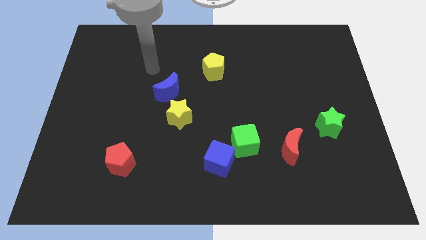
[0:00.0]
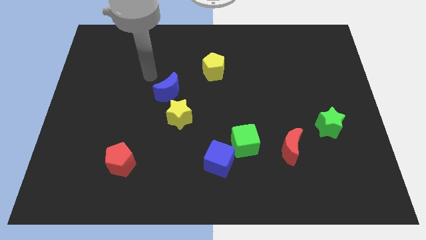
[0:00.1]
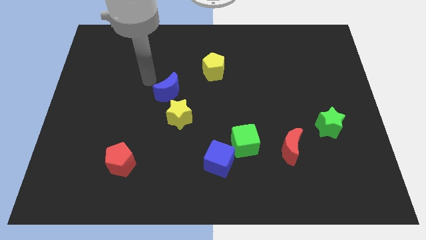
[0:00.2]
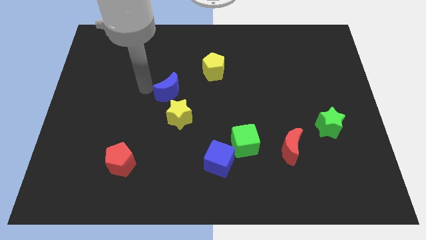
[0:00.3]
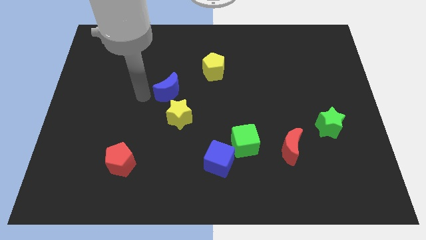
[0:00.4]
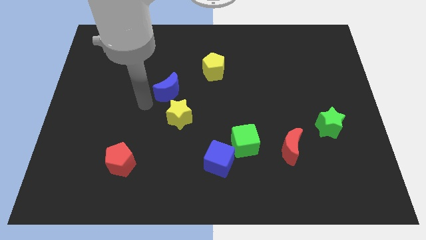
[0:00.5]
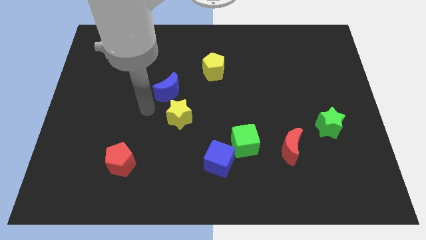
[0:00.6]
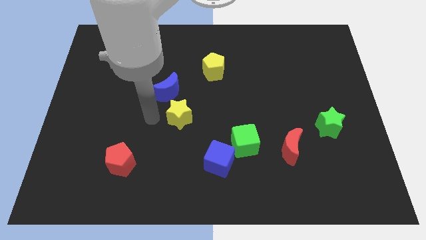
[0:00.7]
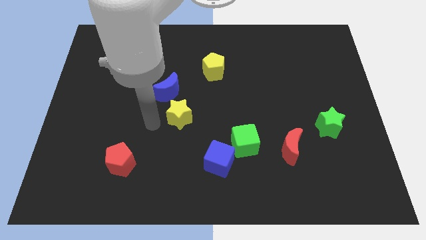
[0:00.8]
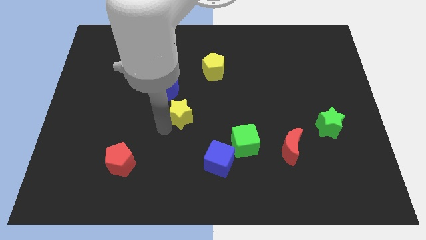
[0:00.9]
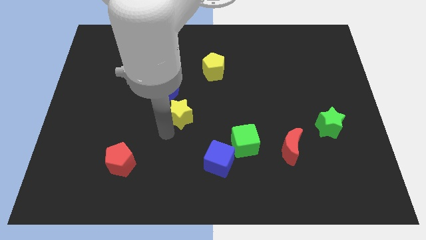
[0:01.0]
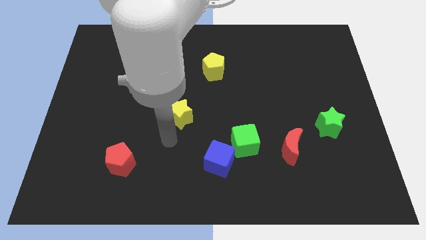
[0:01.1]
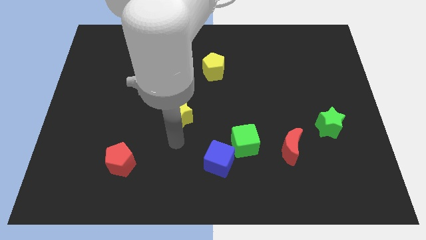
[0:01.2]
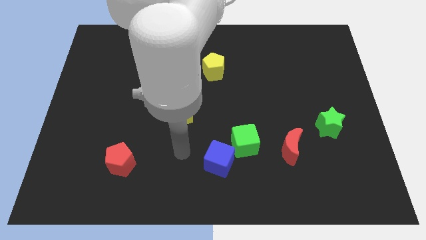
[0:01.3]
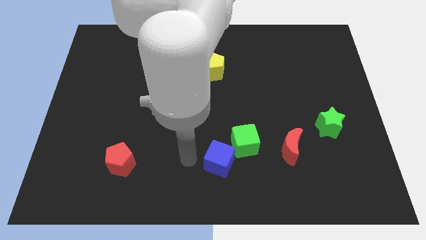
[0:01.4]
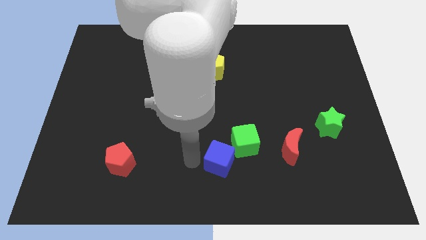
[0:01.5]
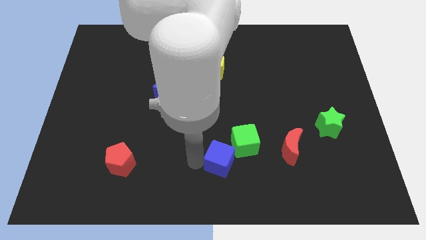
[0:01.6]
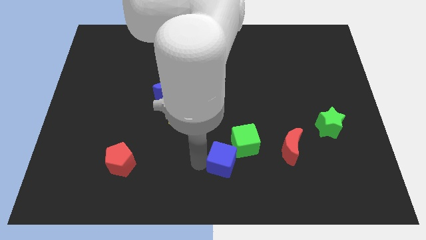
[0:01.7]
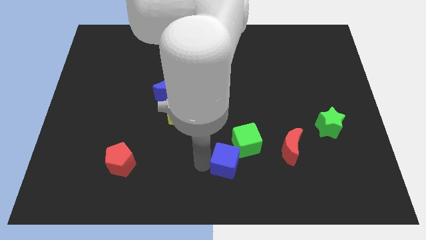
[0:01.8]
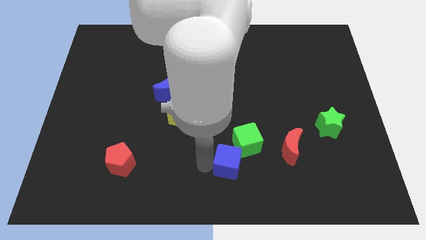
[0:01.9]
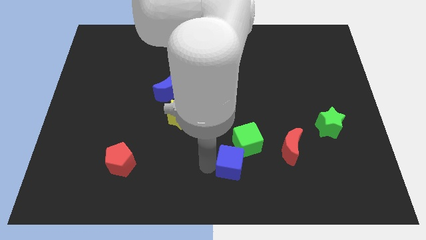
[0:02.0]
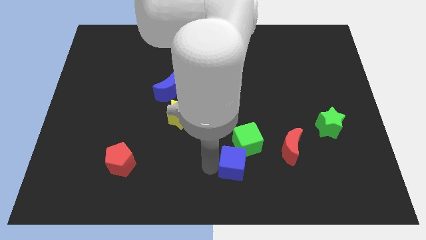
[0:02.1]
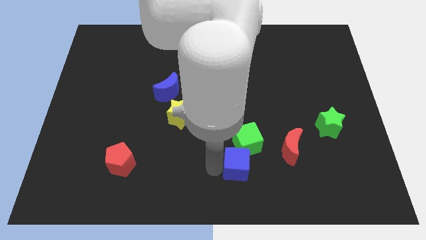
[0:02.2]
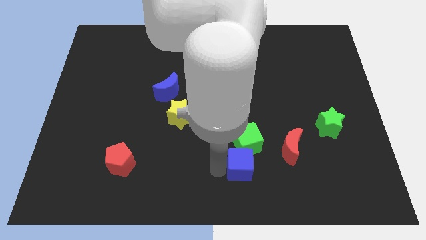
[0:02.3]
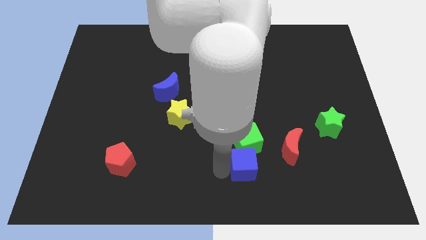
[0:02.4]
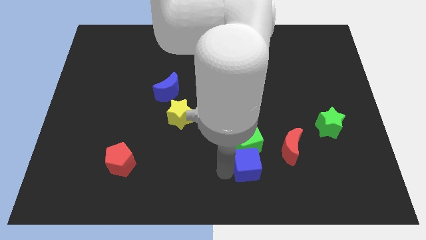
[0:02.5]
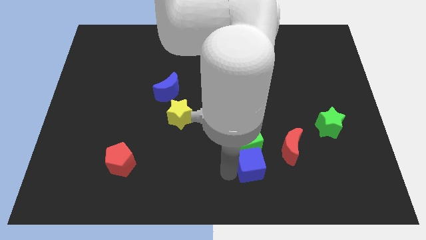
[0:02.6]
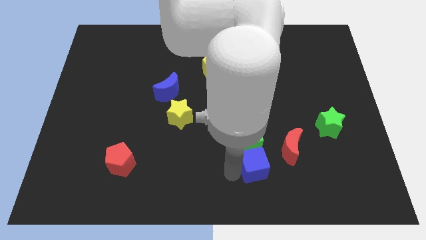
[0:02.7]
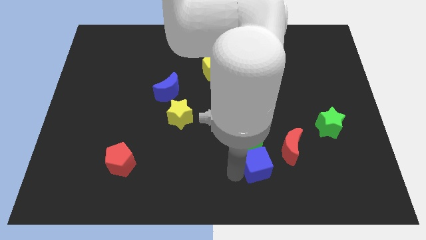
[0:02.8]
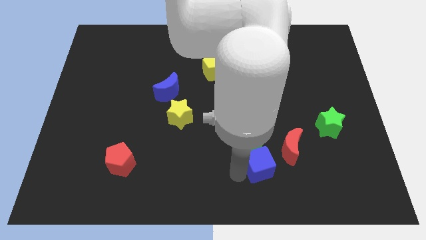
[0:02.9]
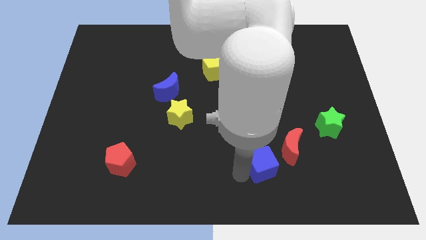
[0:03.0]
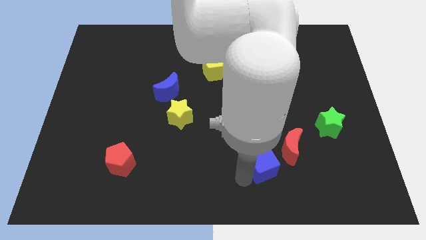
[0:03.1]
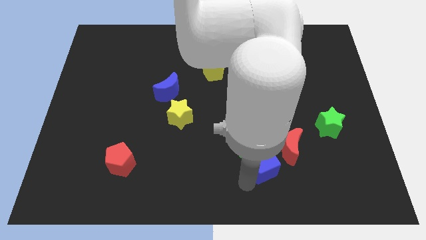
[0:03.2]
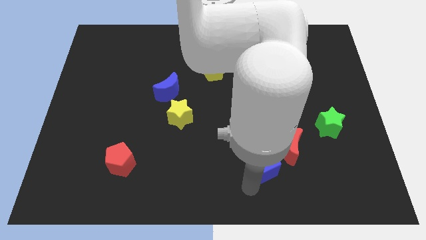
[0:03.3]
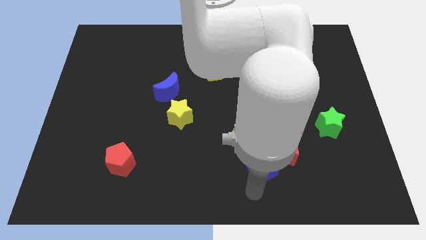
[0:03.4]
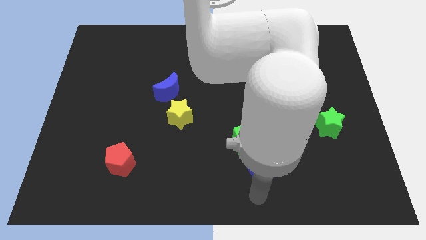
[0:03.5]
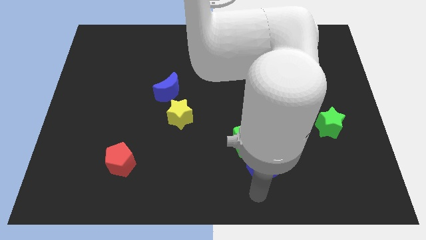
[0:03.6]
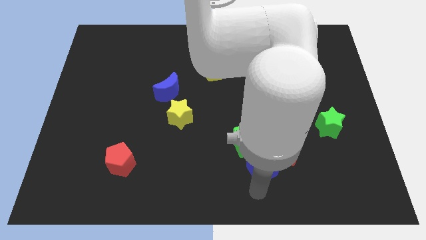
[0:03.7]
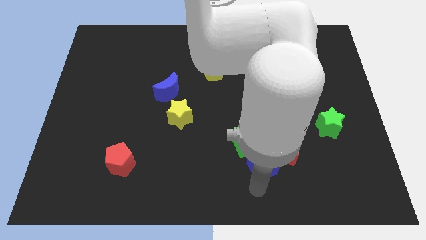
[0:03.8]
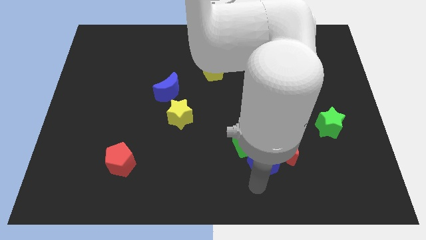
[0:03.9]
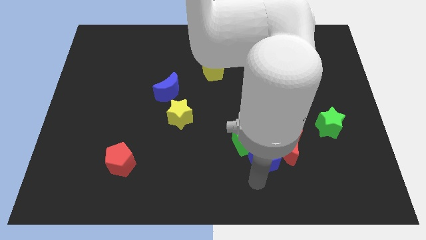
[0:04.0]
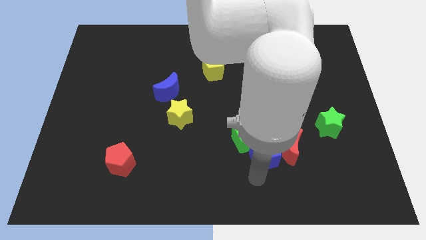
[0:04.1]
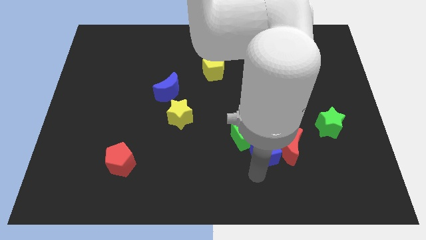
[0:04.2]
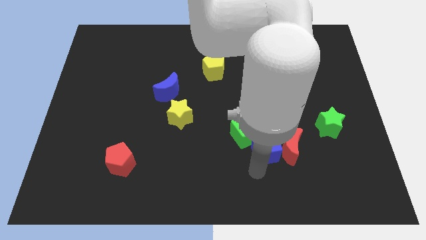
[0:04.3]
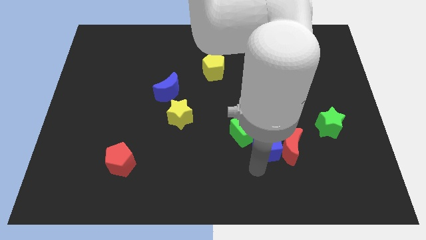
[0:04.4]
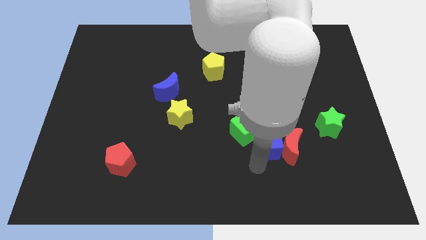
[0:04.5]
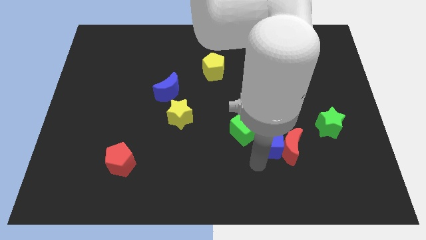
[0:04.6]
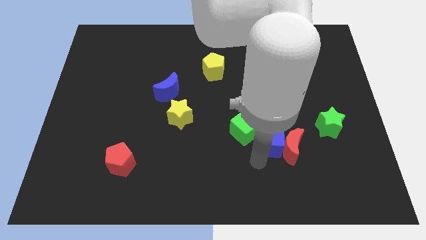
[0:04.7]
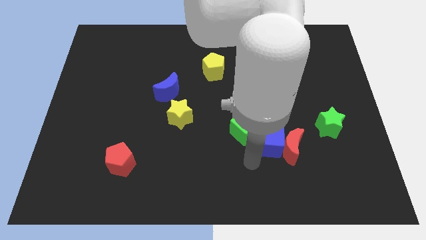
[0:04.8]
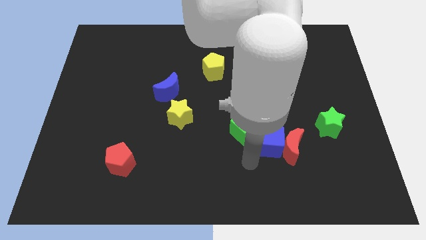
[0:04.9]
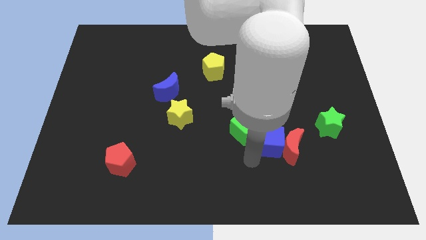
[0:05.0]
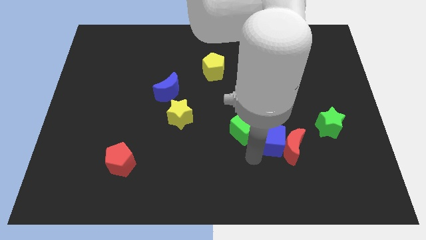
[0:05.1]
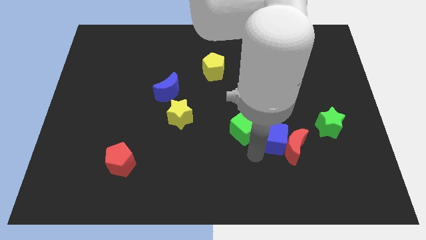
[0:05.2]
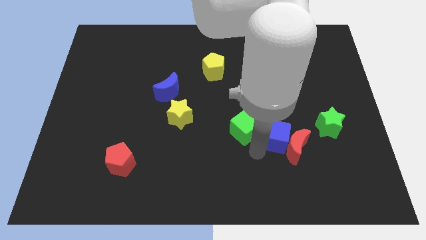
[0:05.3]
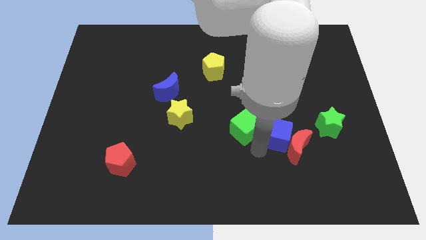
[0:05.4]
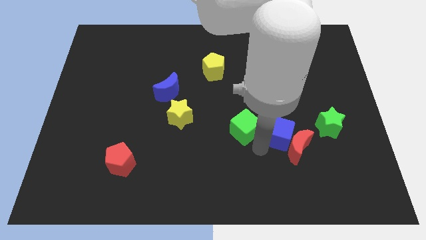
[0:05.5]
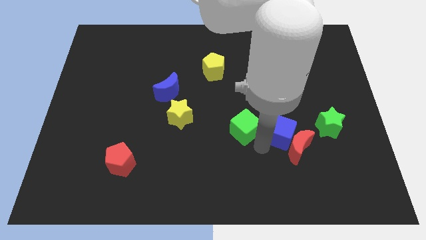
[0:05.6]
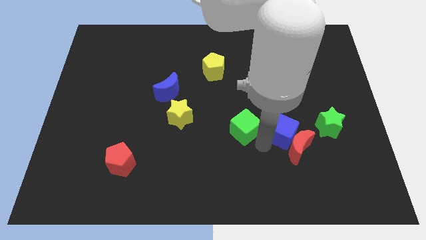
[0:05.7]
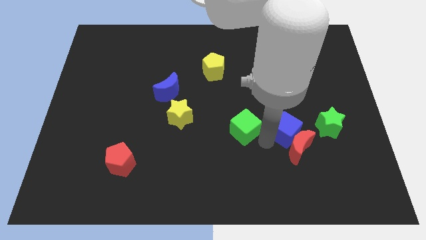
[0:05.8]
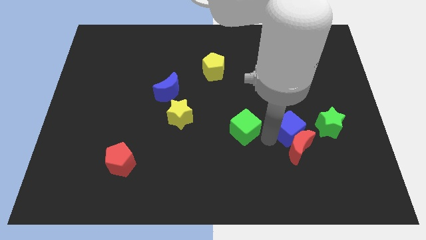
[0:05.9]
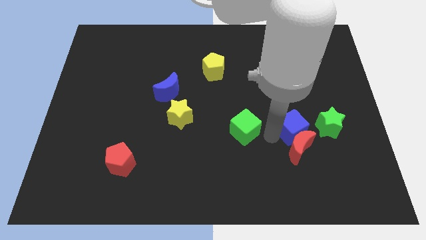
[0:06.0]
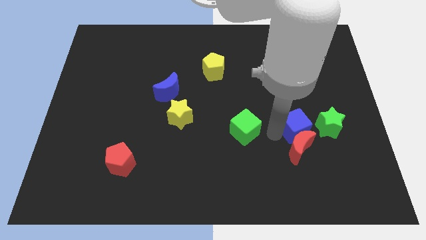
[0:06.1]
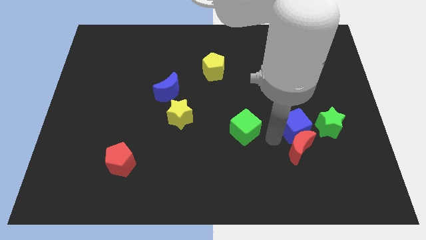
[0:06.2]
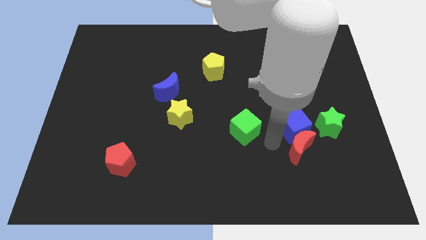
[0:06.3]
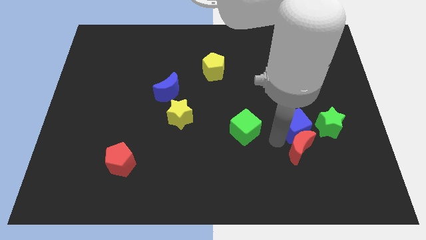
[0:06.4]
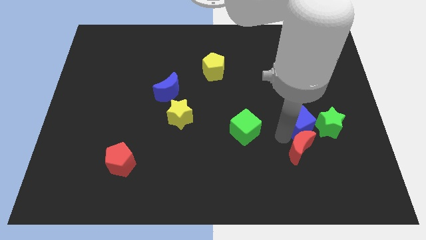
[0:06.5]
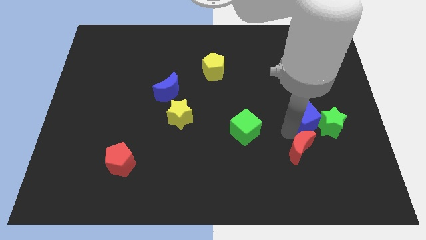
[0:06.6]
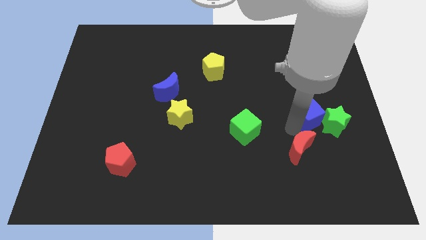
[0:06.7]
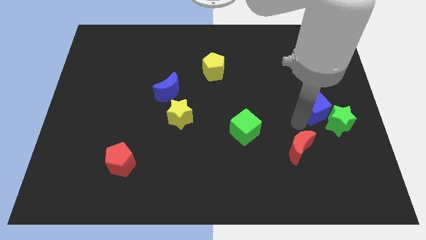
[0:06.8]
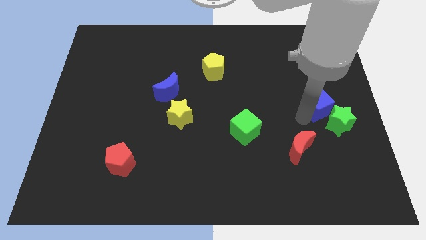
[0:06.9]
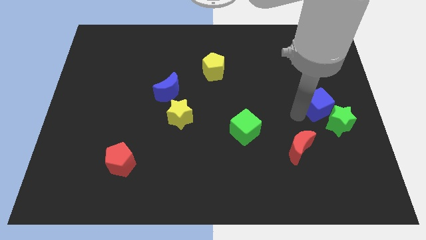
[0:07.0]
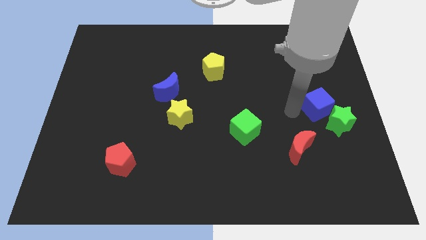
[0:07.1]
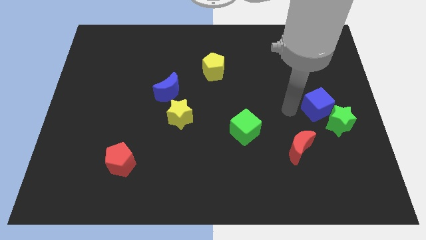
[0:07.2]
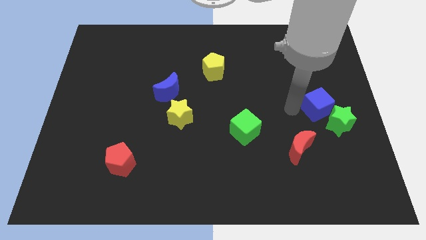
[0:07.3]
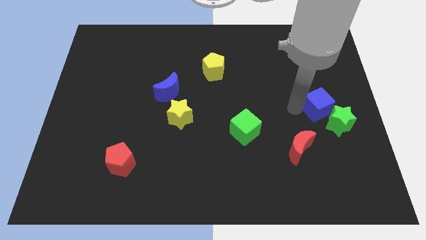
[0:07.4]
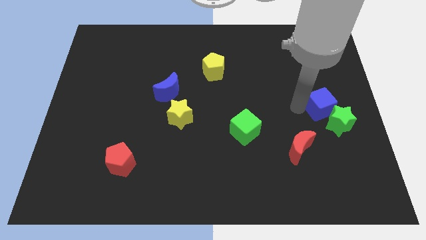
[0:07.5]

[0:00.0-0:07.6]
slide the blue cube to the right side
